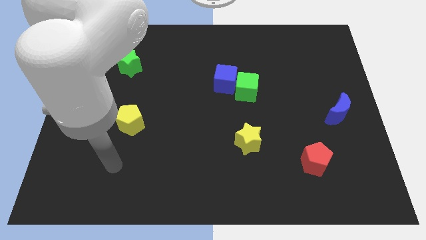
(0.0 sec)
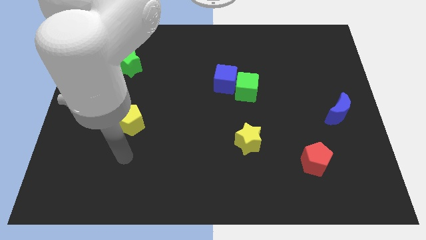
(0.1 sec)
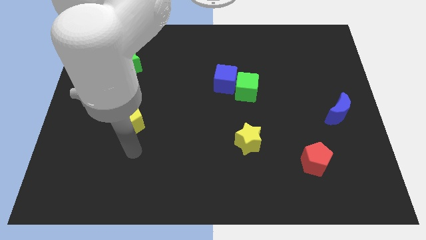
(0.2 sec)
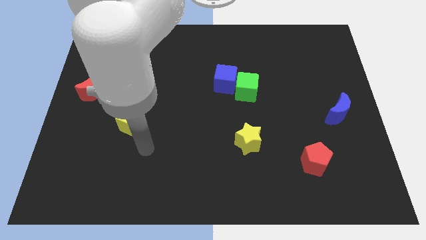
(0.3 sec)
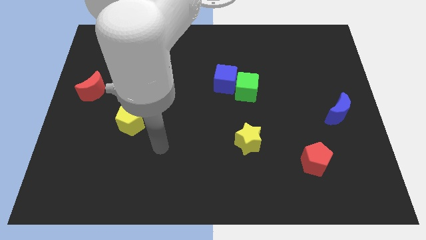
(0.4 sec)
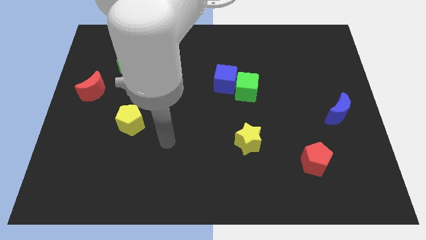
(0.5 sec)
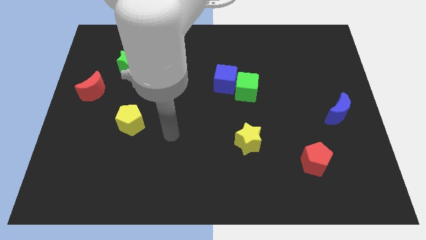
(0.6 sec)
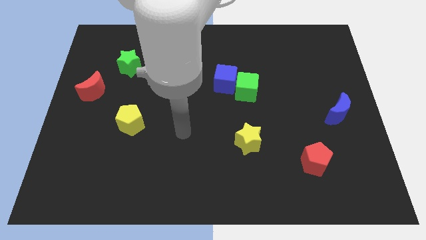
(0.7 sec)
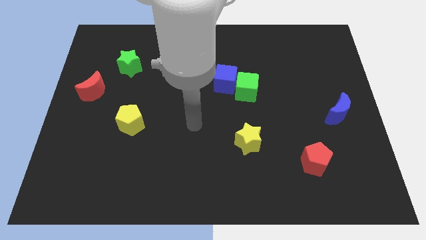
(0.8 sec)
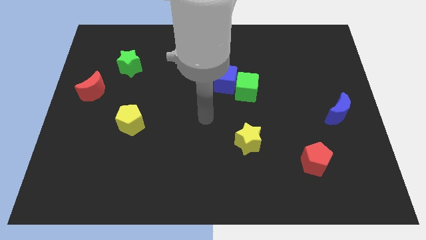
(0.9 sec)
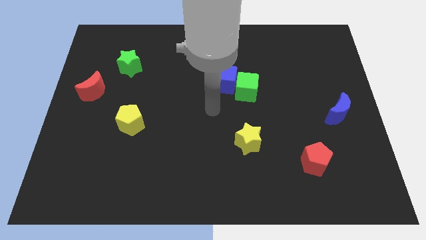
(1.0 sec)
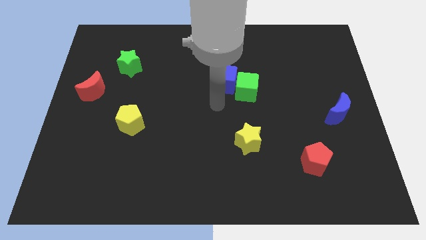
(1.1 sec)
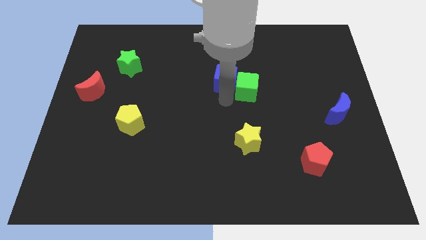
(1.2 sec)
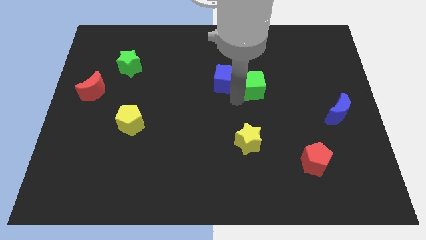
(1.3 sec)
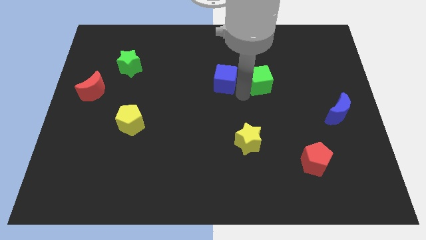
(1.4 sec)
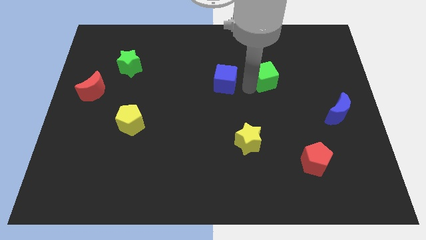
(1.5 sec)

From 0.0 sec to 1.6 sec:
pull the blue cube apart from the green cube

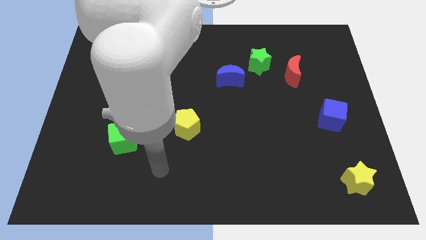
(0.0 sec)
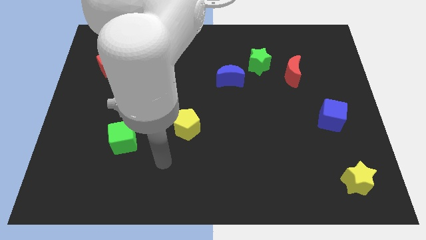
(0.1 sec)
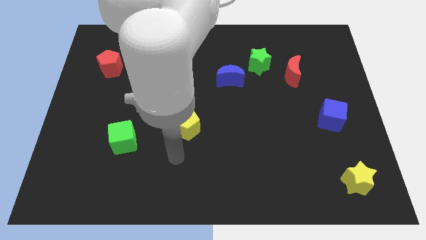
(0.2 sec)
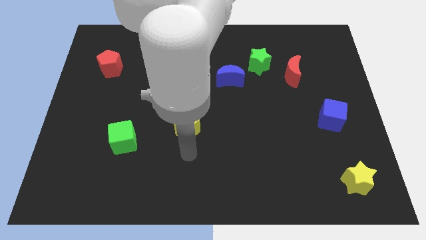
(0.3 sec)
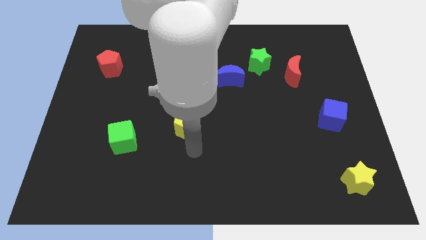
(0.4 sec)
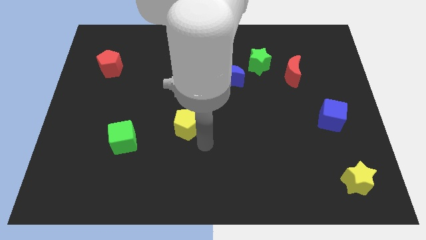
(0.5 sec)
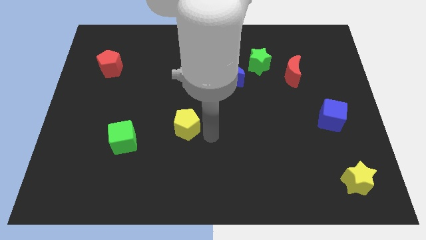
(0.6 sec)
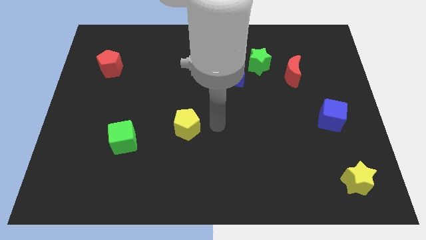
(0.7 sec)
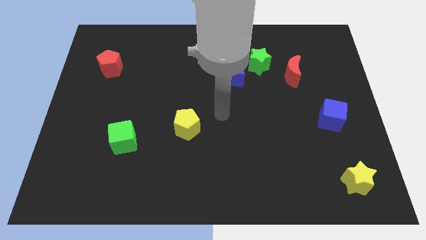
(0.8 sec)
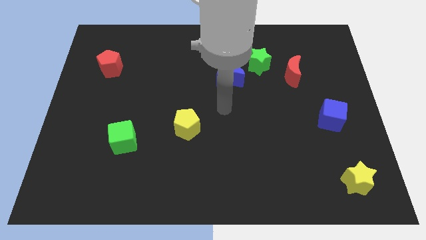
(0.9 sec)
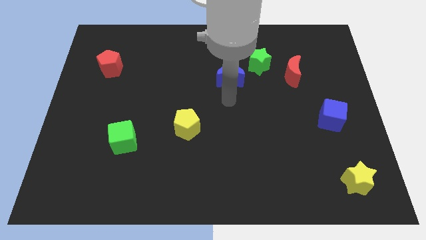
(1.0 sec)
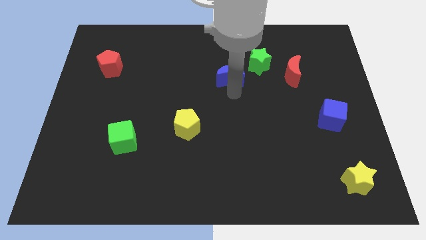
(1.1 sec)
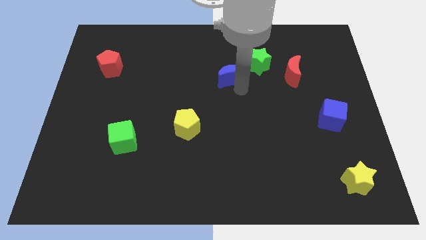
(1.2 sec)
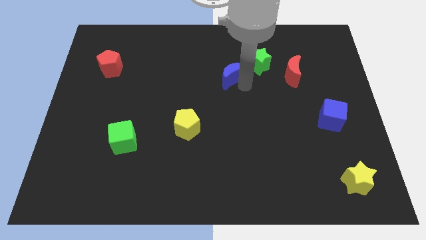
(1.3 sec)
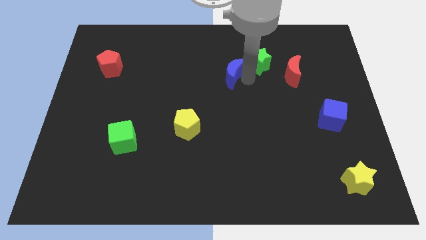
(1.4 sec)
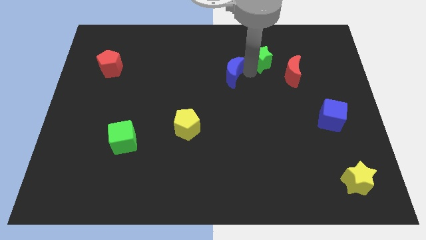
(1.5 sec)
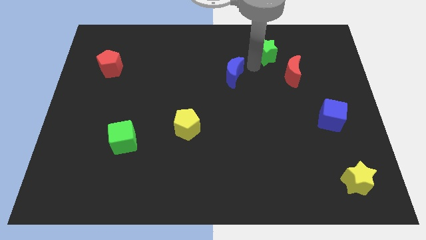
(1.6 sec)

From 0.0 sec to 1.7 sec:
pull the blue moon apart from the green star

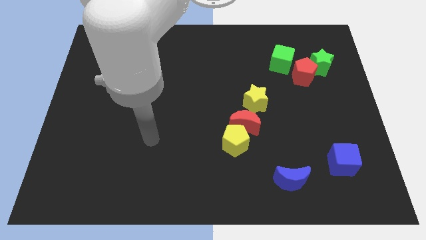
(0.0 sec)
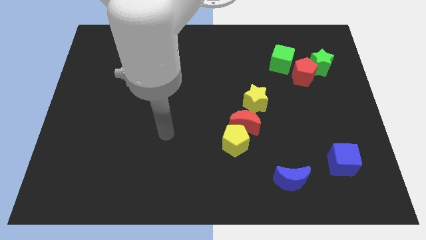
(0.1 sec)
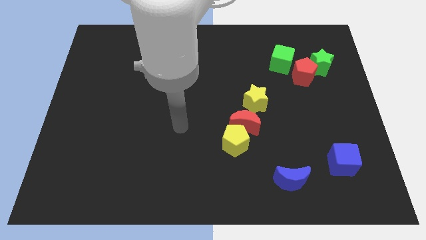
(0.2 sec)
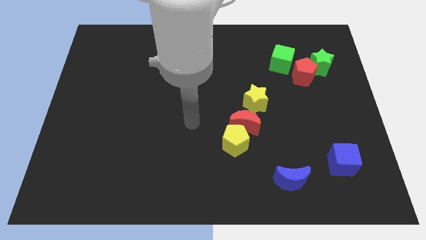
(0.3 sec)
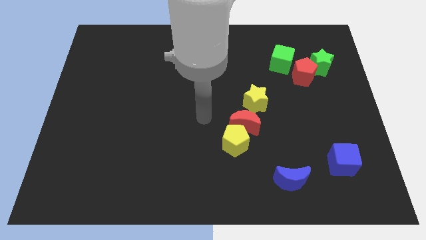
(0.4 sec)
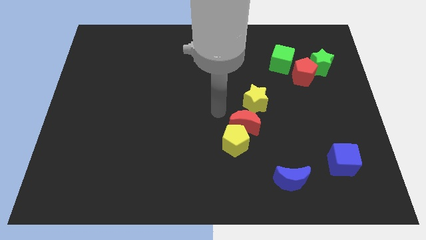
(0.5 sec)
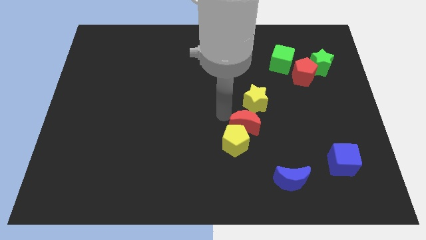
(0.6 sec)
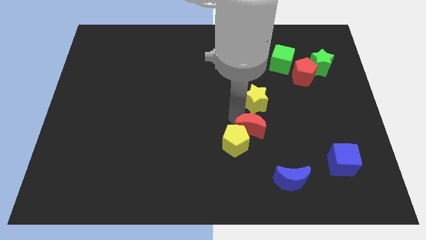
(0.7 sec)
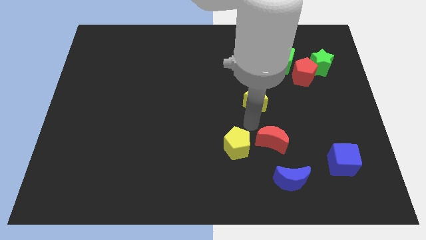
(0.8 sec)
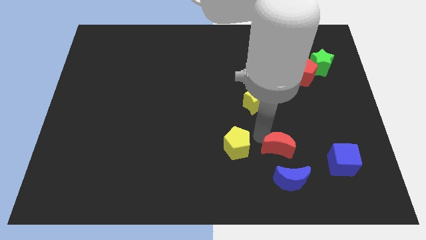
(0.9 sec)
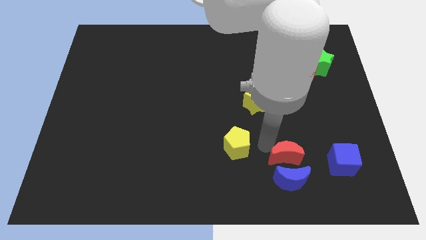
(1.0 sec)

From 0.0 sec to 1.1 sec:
move the yellow pentagon away from the red moon

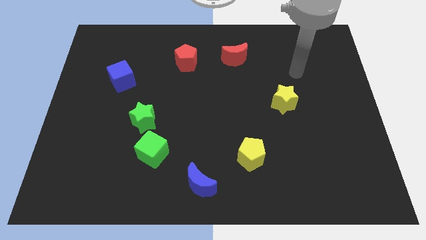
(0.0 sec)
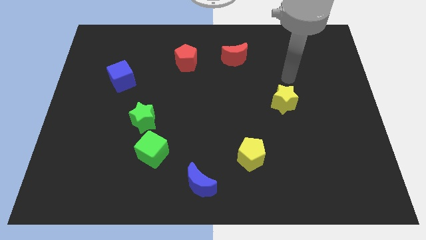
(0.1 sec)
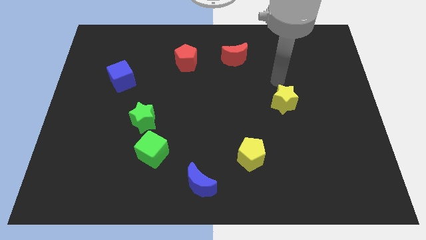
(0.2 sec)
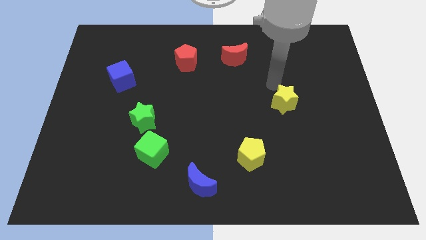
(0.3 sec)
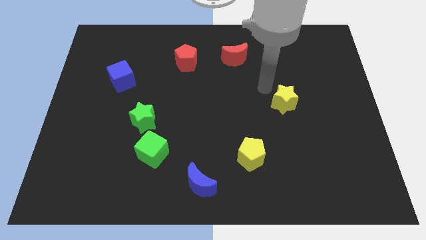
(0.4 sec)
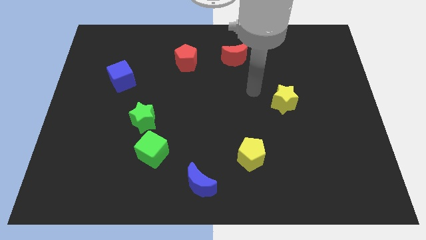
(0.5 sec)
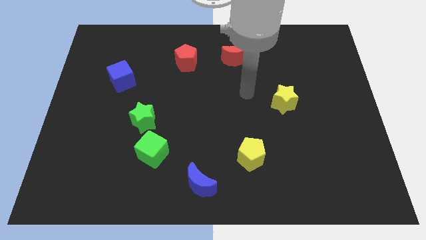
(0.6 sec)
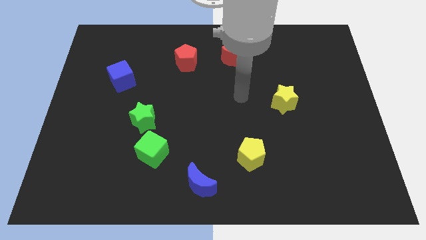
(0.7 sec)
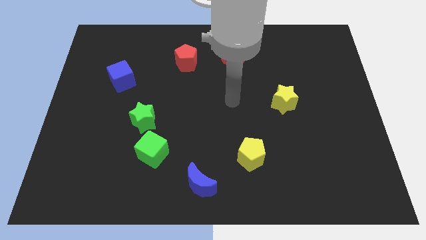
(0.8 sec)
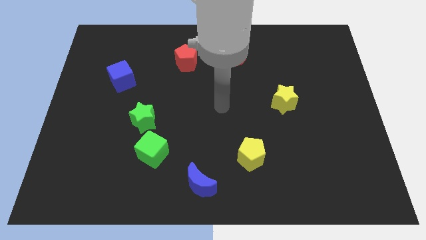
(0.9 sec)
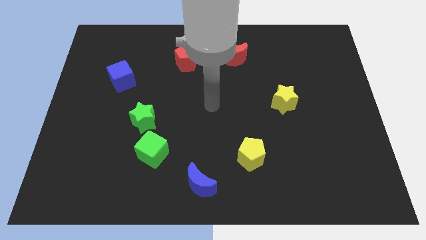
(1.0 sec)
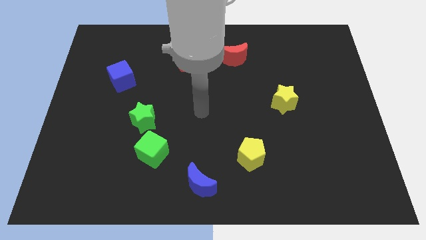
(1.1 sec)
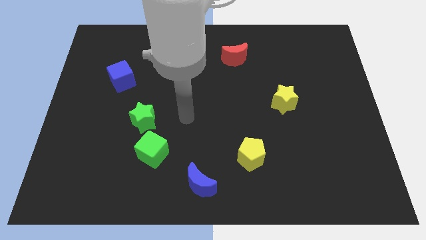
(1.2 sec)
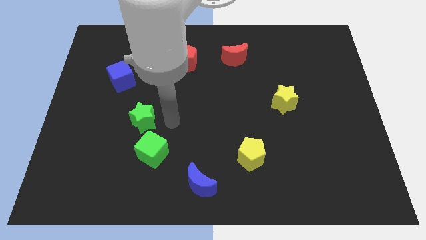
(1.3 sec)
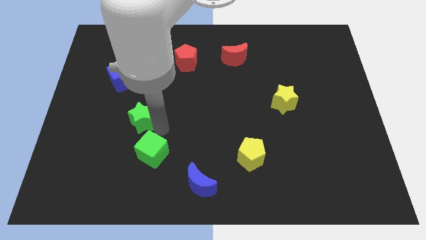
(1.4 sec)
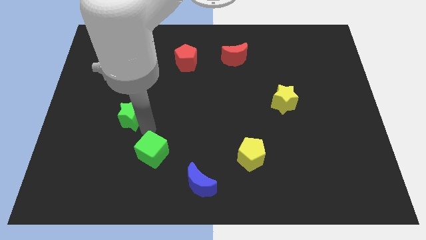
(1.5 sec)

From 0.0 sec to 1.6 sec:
pull the green cube apart from the green star

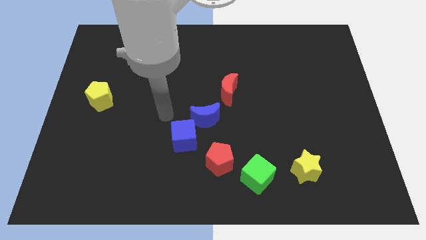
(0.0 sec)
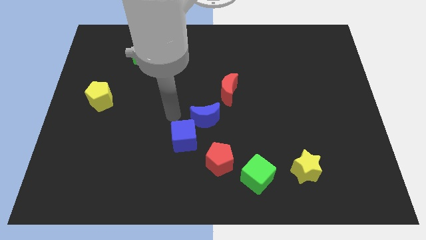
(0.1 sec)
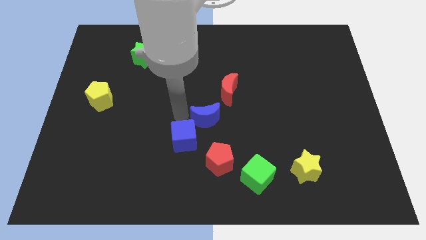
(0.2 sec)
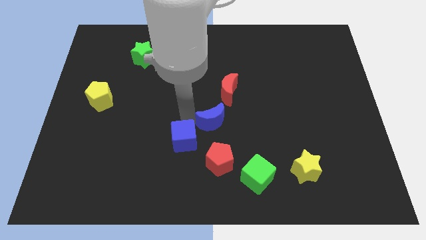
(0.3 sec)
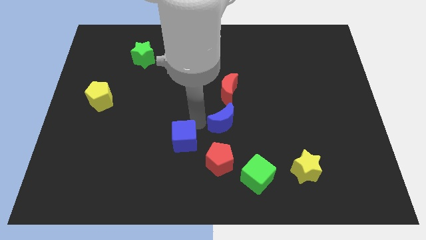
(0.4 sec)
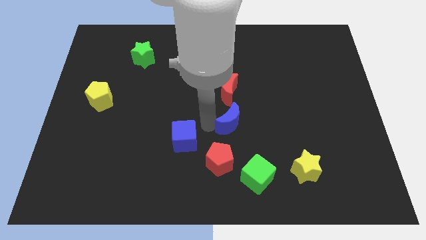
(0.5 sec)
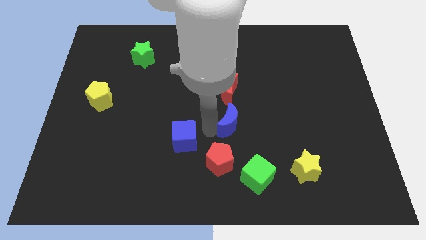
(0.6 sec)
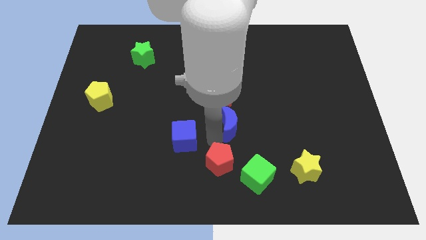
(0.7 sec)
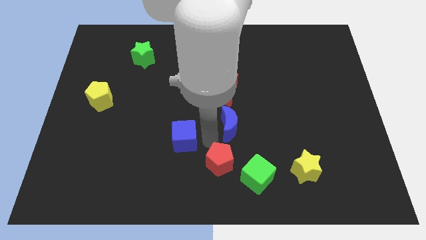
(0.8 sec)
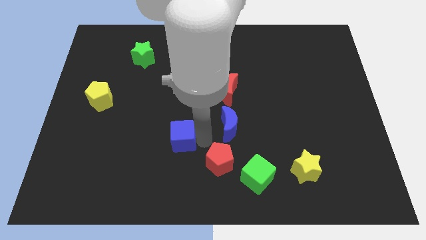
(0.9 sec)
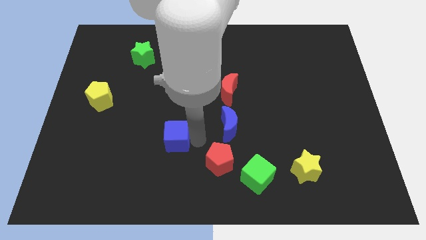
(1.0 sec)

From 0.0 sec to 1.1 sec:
move the blue cube away from the blue moon and red pentagon

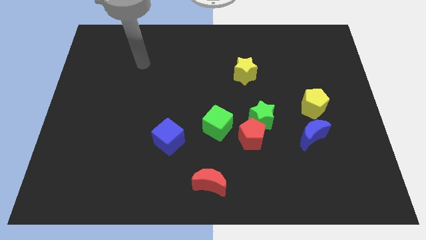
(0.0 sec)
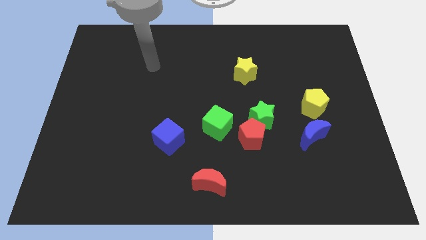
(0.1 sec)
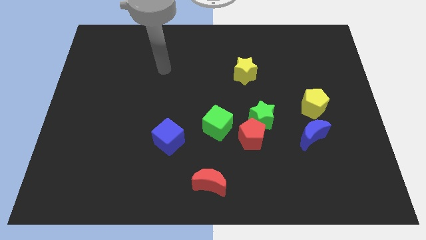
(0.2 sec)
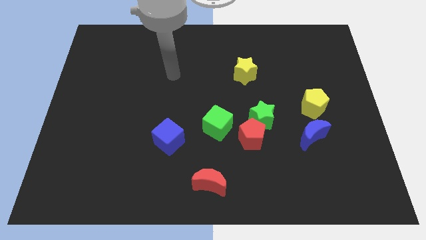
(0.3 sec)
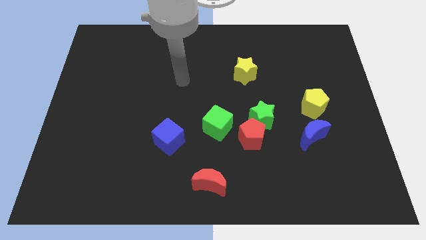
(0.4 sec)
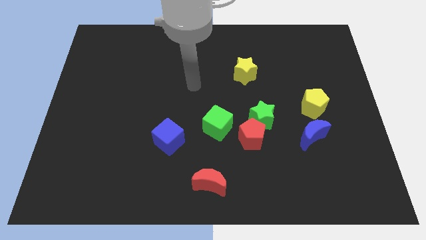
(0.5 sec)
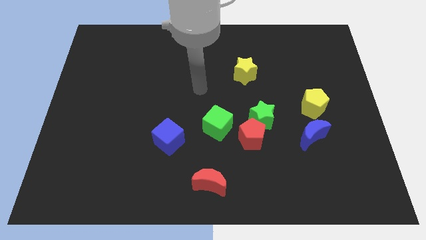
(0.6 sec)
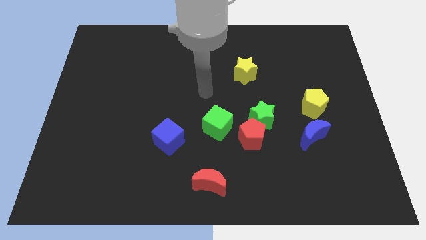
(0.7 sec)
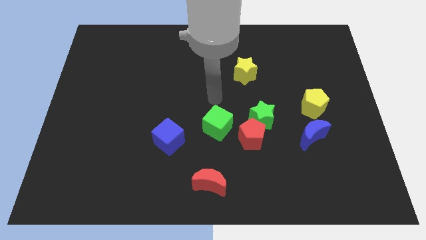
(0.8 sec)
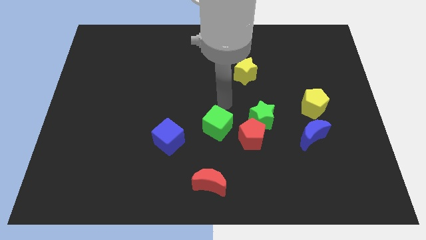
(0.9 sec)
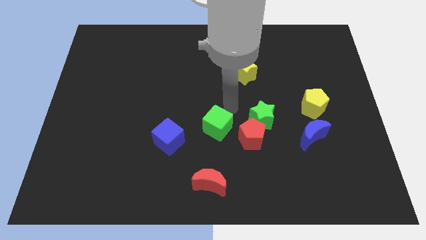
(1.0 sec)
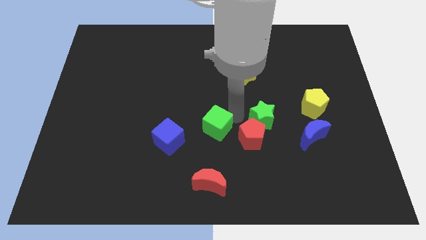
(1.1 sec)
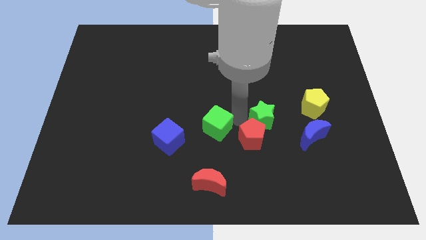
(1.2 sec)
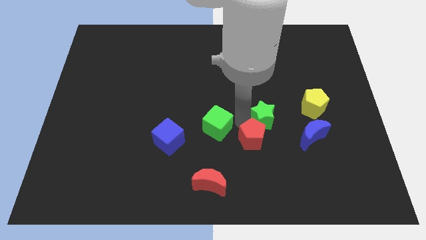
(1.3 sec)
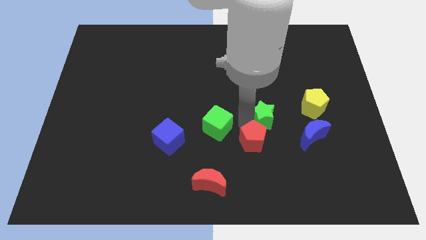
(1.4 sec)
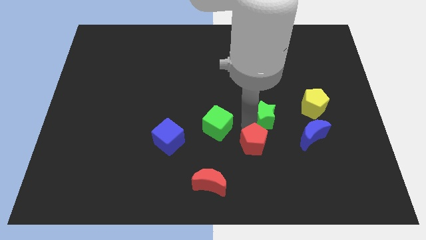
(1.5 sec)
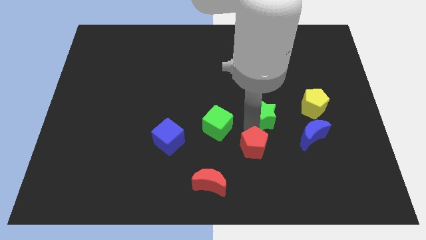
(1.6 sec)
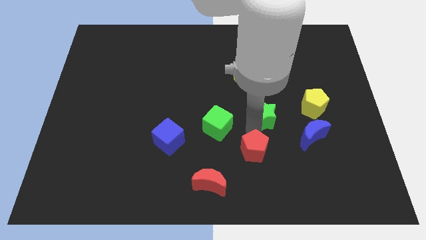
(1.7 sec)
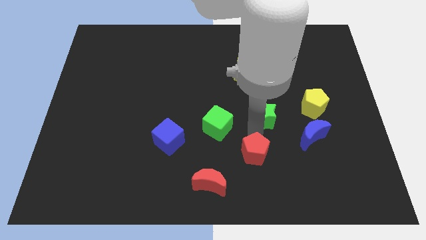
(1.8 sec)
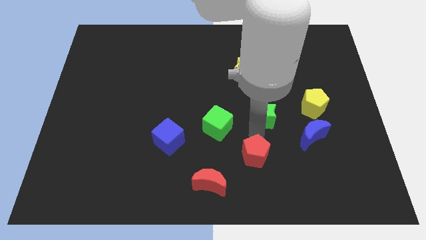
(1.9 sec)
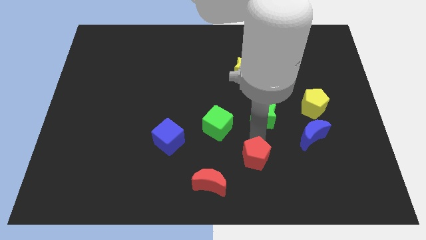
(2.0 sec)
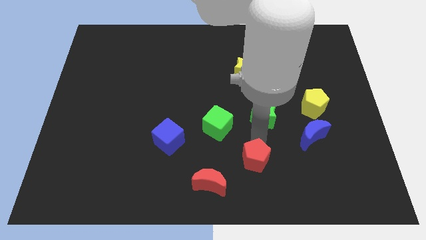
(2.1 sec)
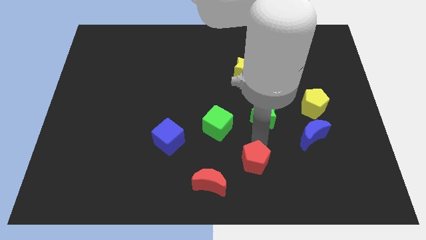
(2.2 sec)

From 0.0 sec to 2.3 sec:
separate the red pentagon from the green star and green cube
